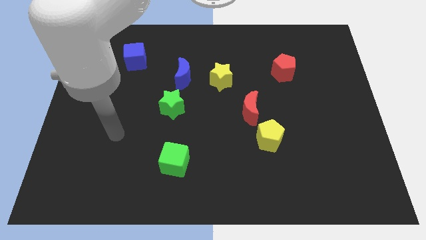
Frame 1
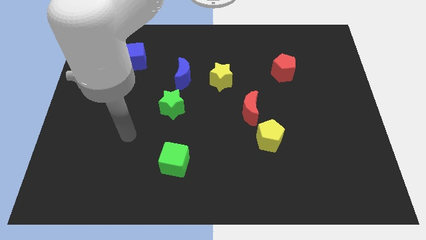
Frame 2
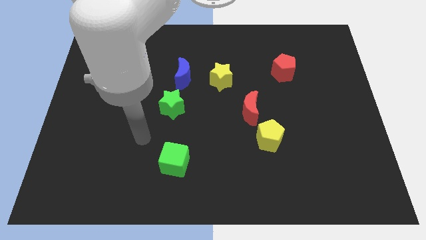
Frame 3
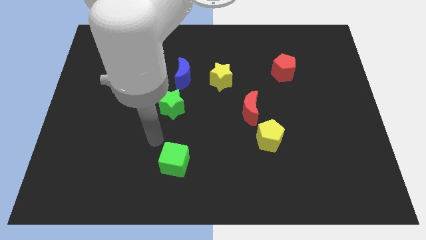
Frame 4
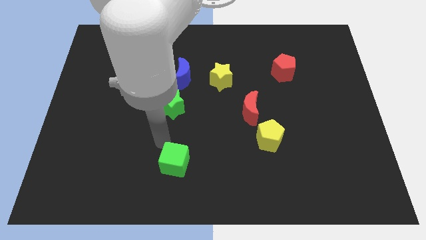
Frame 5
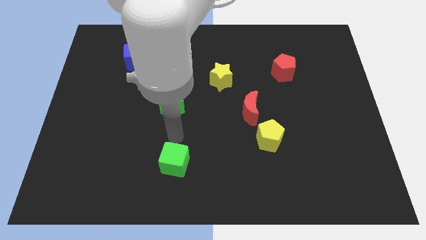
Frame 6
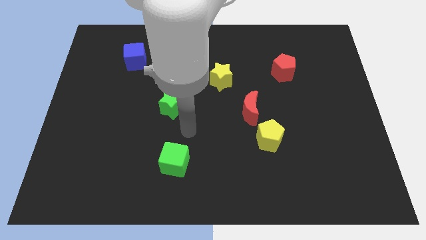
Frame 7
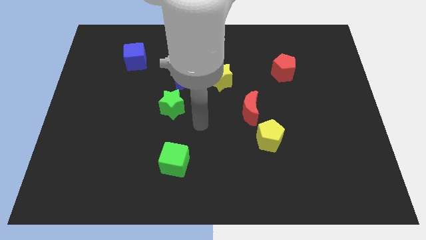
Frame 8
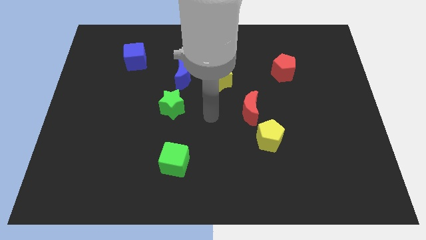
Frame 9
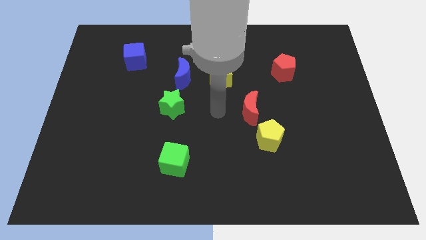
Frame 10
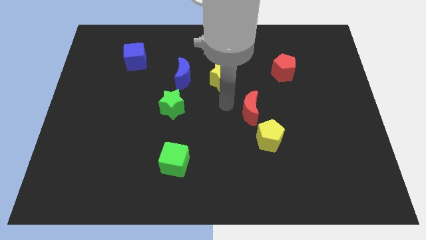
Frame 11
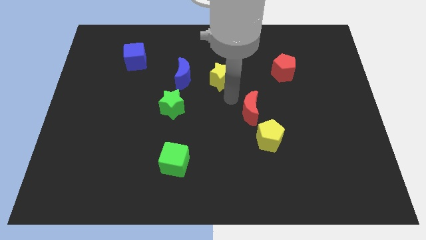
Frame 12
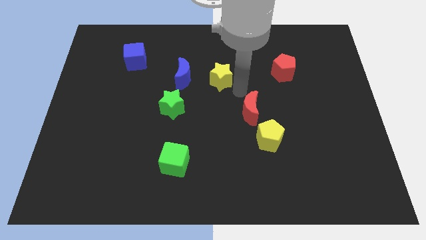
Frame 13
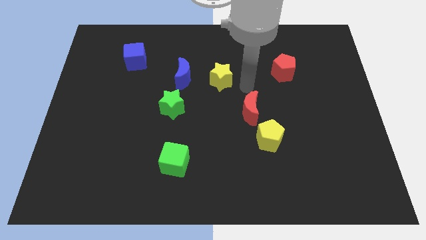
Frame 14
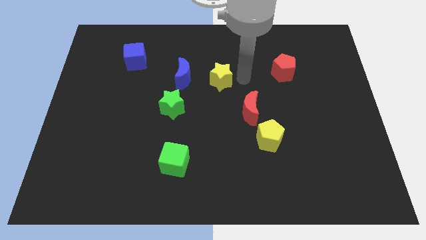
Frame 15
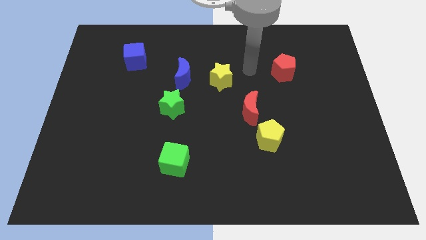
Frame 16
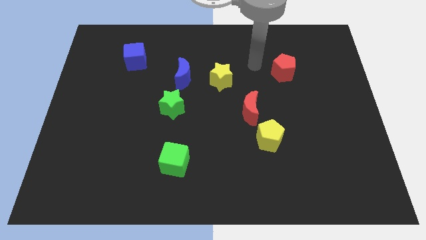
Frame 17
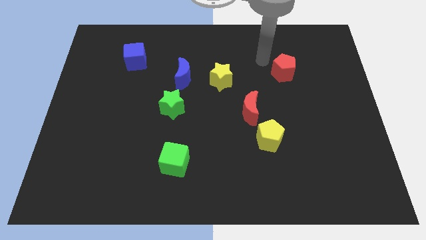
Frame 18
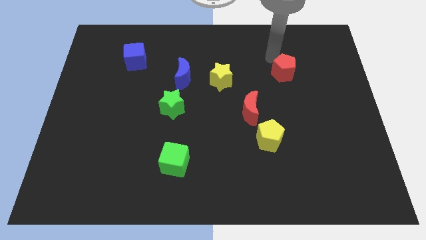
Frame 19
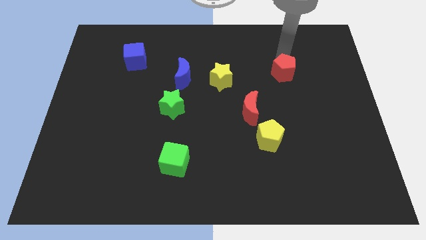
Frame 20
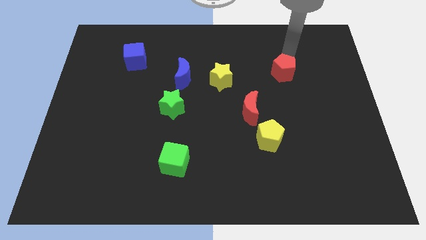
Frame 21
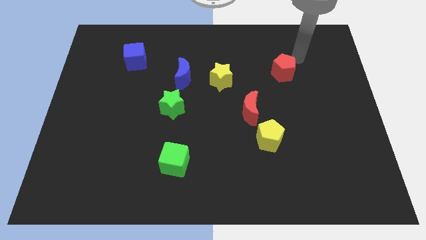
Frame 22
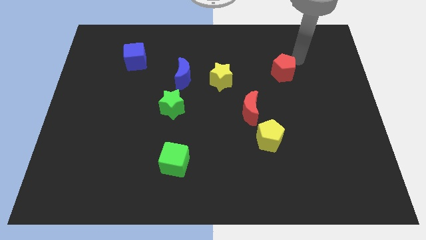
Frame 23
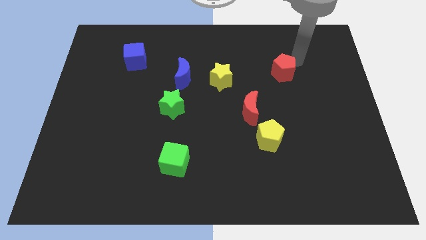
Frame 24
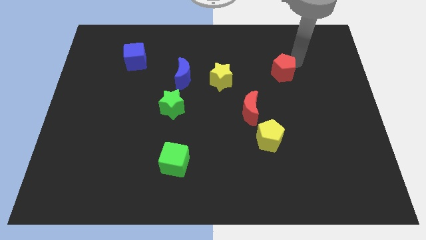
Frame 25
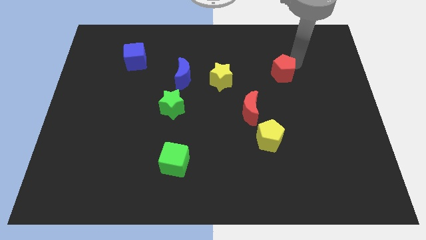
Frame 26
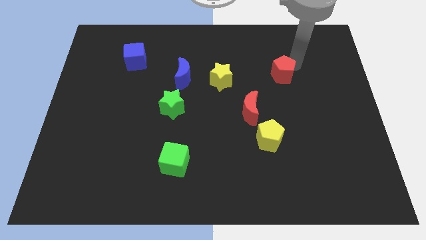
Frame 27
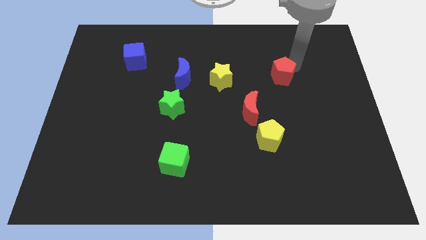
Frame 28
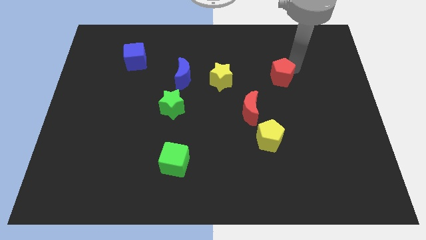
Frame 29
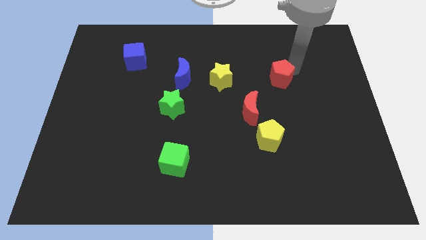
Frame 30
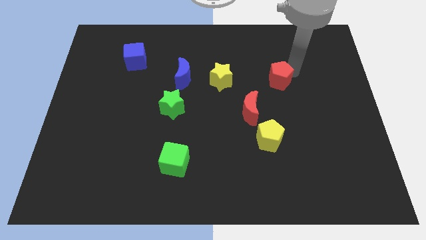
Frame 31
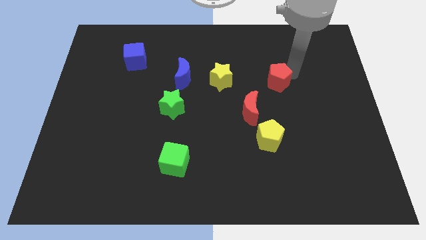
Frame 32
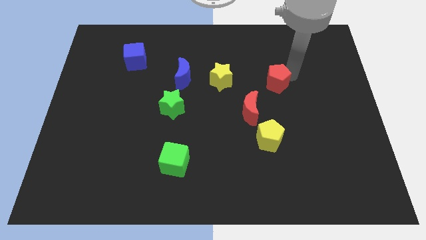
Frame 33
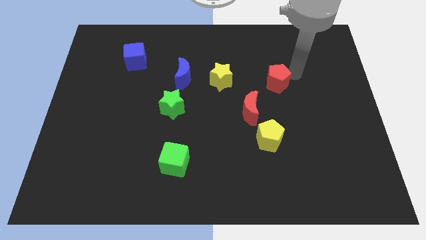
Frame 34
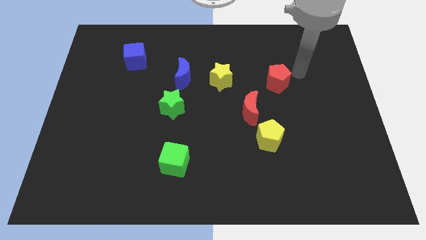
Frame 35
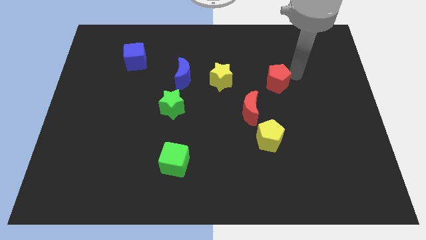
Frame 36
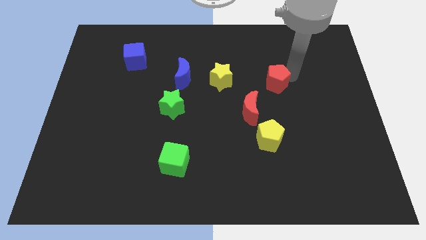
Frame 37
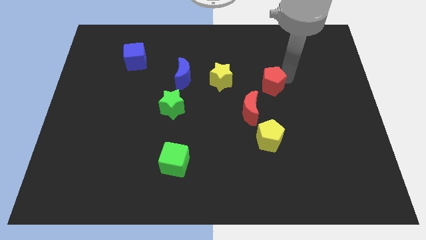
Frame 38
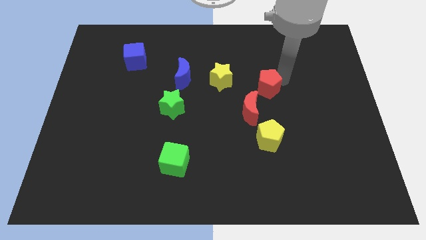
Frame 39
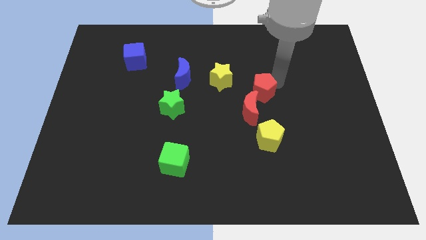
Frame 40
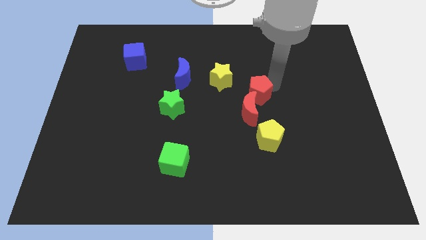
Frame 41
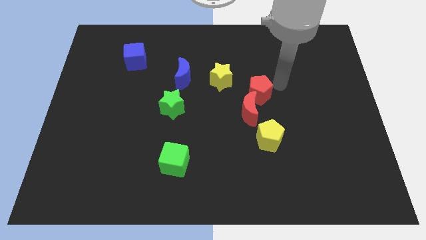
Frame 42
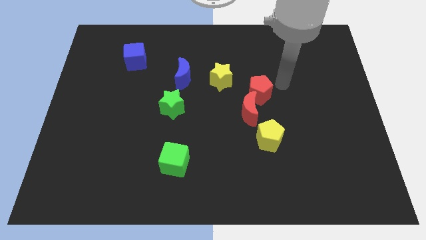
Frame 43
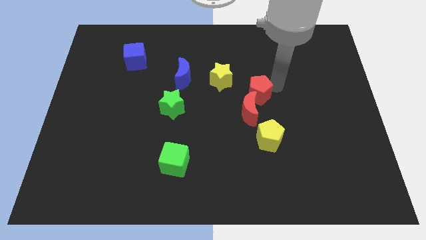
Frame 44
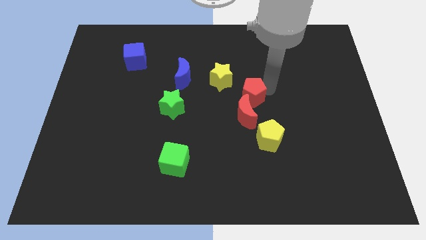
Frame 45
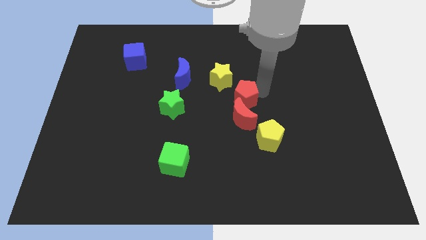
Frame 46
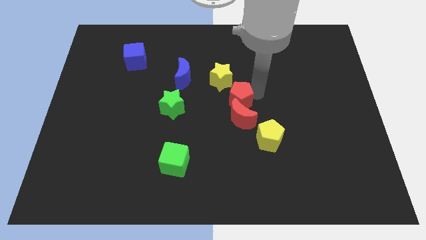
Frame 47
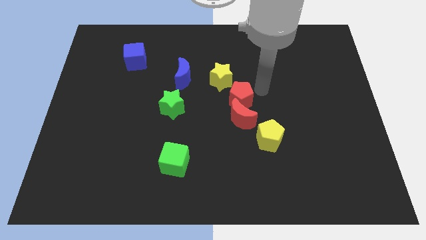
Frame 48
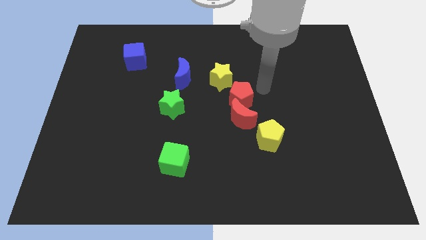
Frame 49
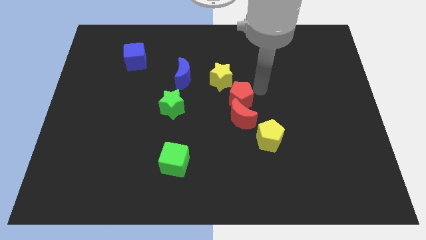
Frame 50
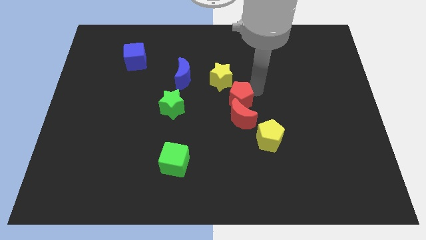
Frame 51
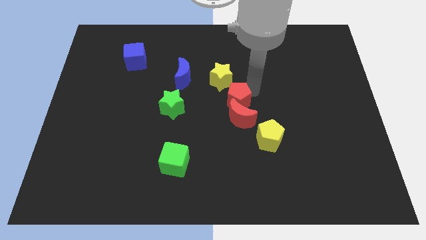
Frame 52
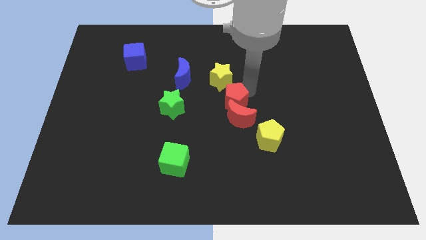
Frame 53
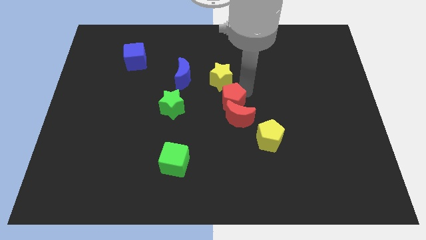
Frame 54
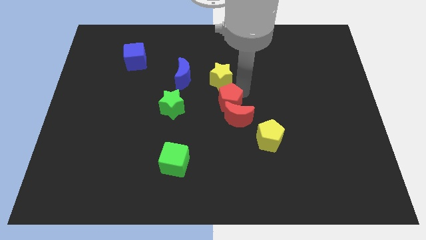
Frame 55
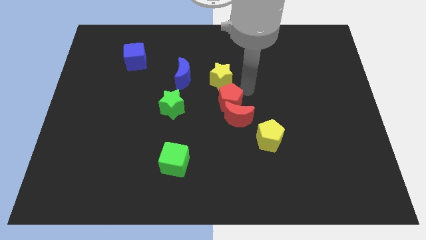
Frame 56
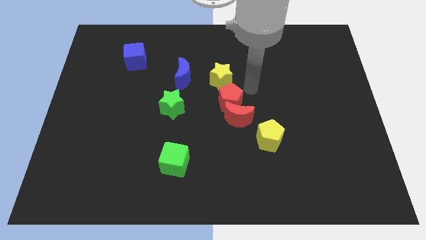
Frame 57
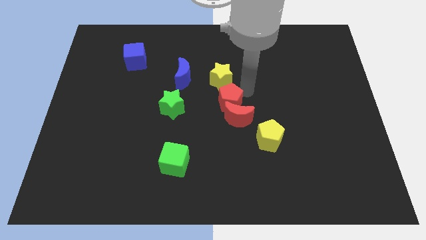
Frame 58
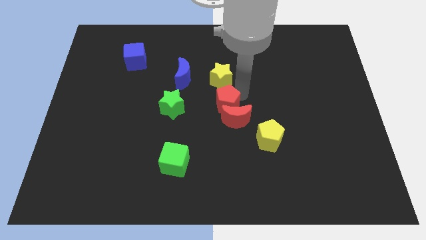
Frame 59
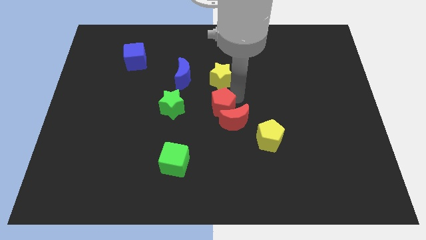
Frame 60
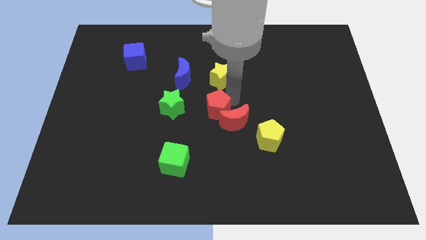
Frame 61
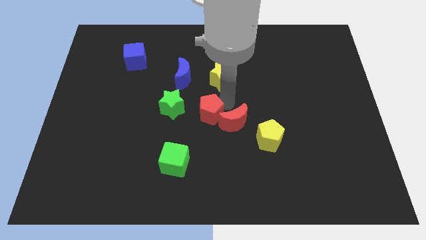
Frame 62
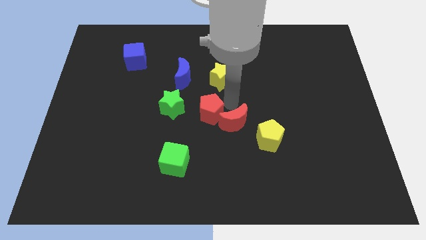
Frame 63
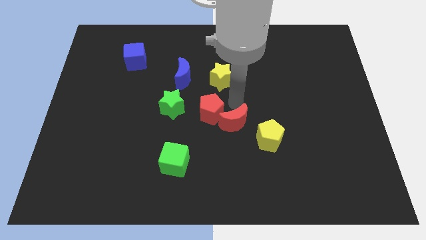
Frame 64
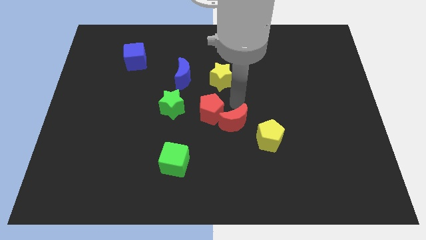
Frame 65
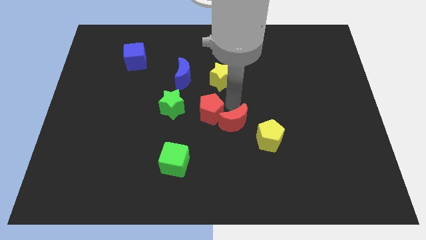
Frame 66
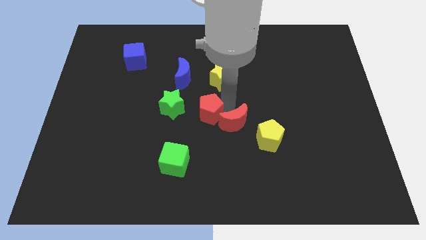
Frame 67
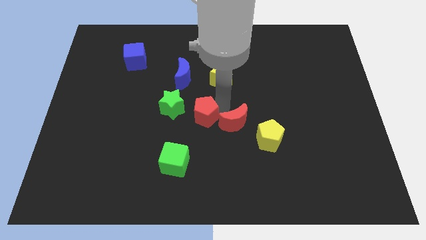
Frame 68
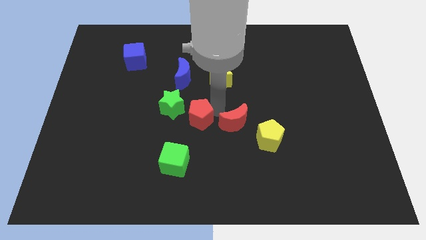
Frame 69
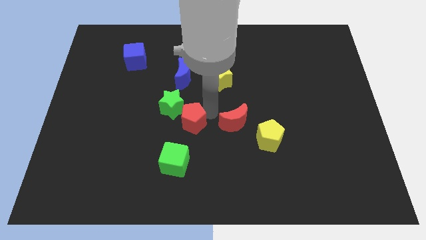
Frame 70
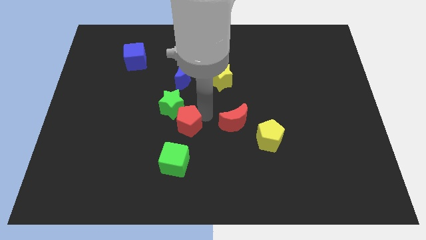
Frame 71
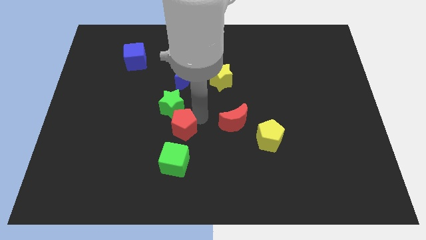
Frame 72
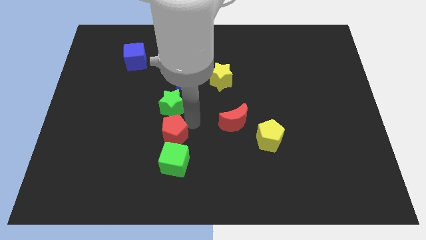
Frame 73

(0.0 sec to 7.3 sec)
push the red pentagon diagonally up and to the left of the green cube
